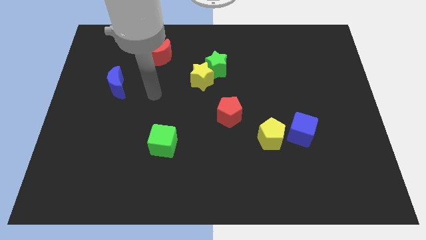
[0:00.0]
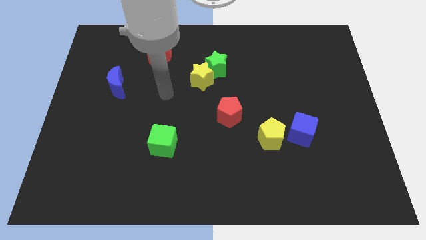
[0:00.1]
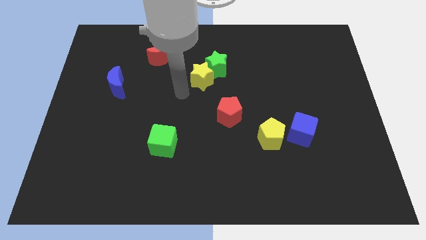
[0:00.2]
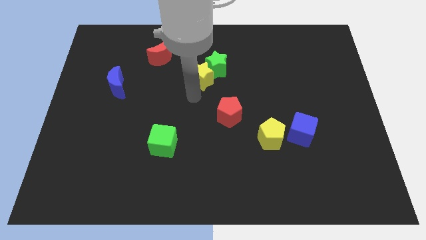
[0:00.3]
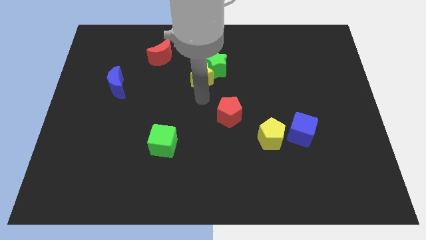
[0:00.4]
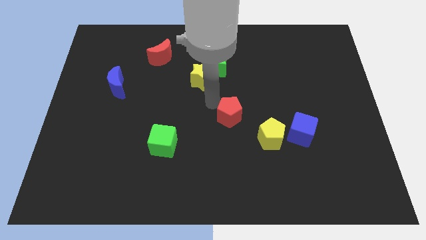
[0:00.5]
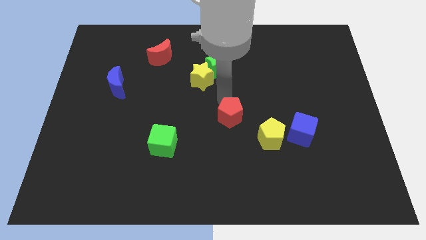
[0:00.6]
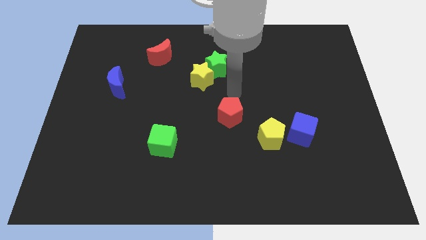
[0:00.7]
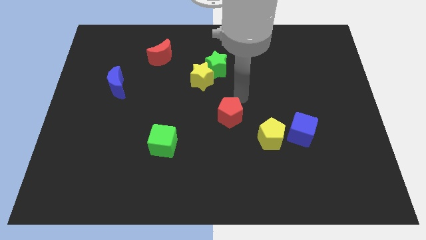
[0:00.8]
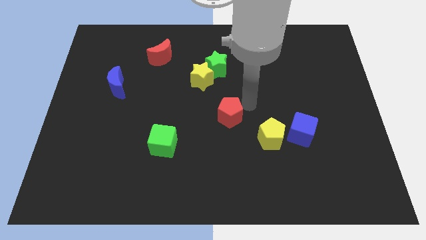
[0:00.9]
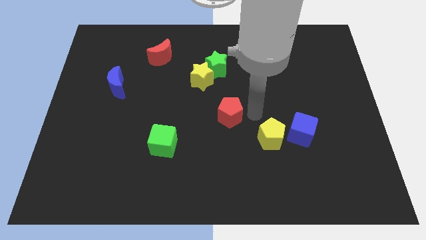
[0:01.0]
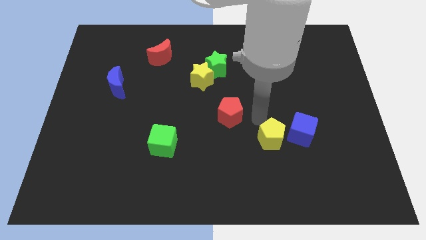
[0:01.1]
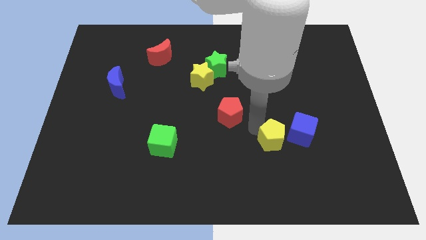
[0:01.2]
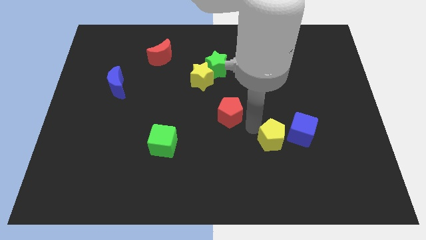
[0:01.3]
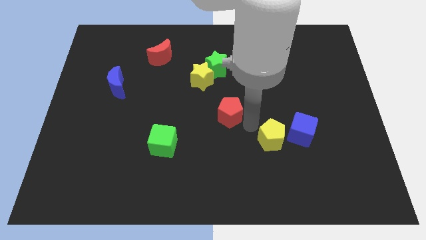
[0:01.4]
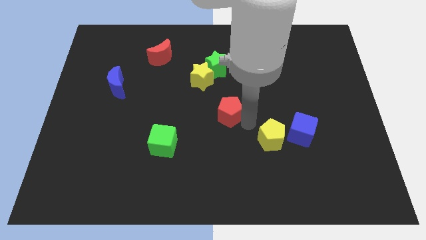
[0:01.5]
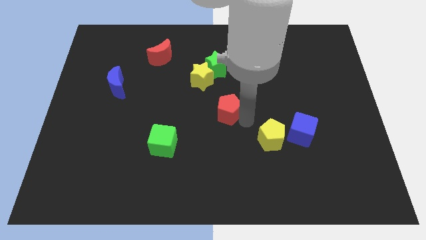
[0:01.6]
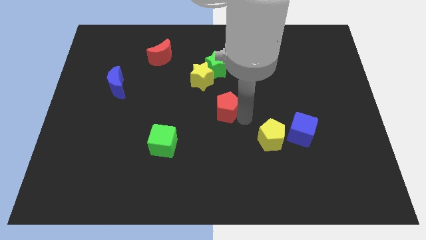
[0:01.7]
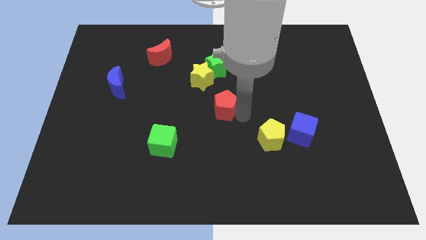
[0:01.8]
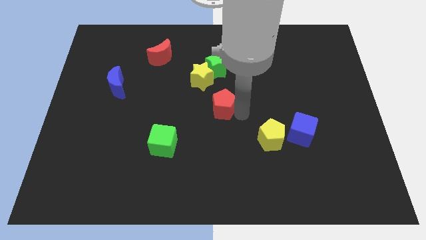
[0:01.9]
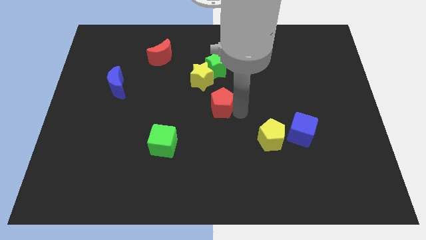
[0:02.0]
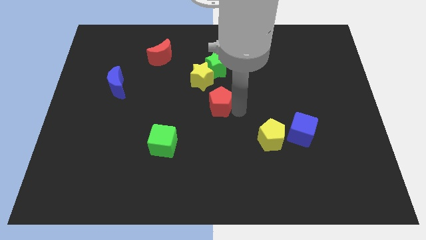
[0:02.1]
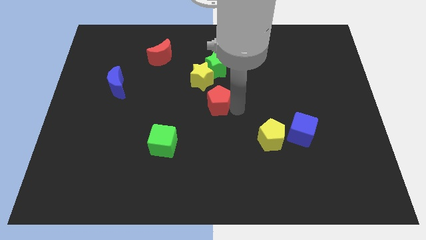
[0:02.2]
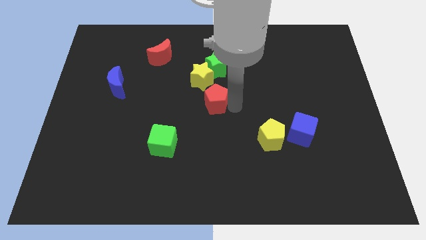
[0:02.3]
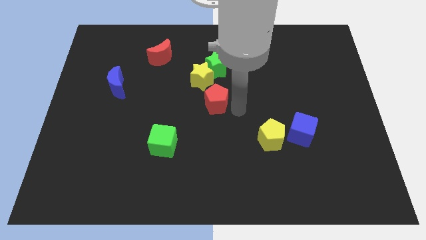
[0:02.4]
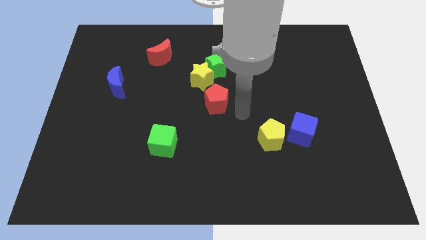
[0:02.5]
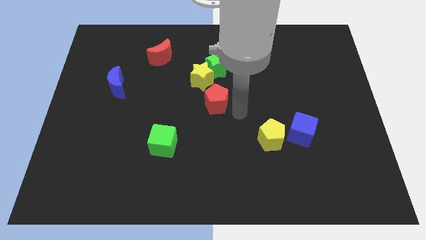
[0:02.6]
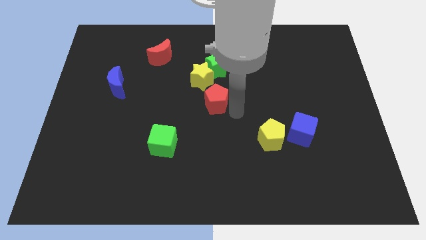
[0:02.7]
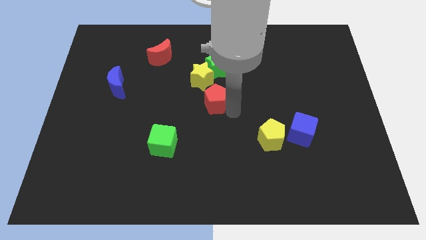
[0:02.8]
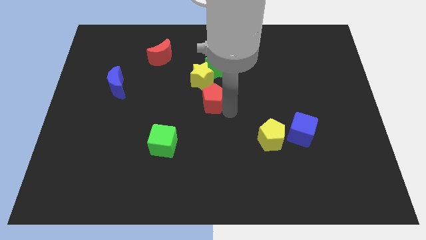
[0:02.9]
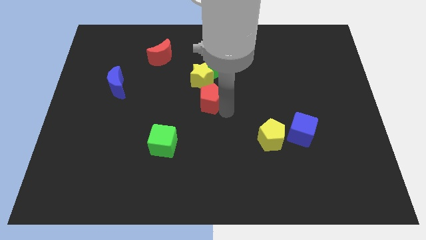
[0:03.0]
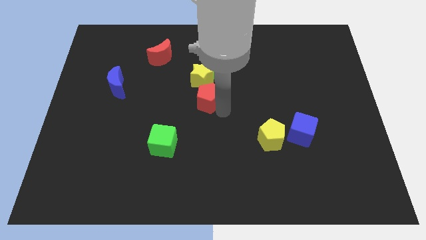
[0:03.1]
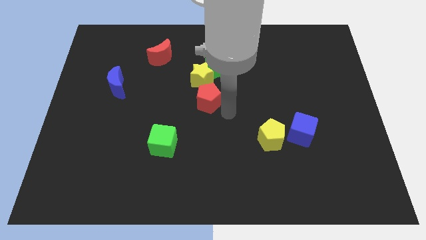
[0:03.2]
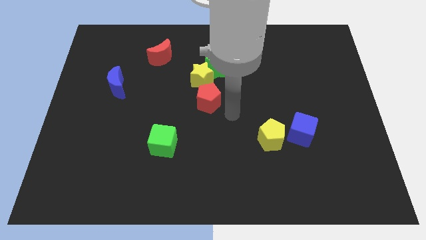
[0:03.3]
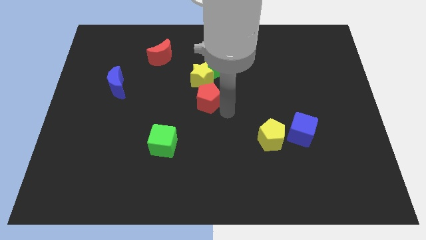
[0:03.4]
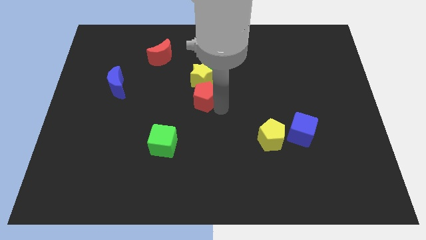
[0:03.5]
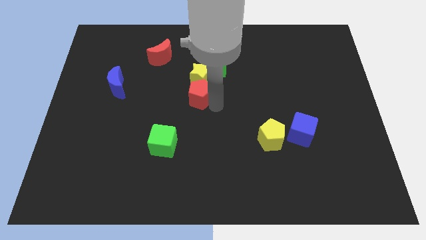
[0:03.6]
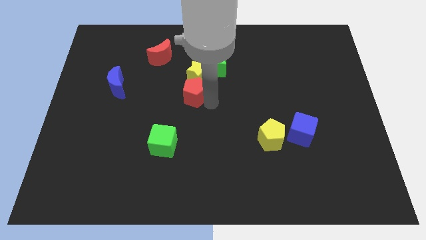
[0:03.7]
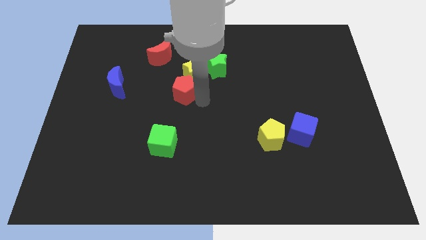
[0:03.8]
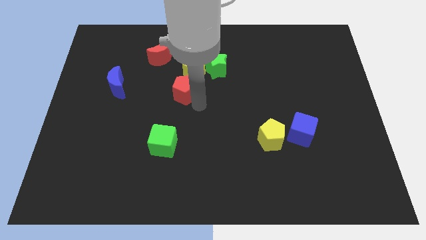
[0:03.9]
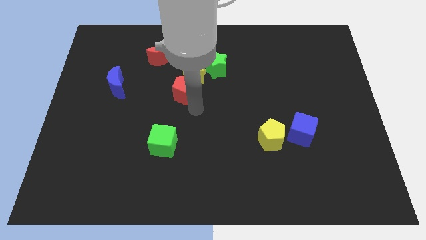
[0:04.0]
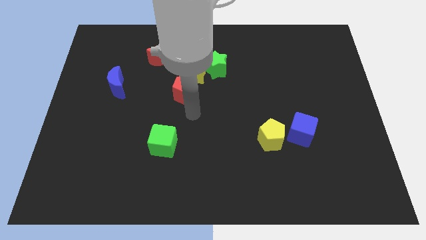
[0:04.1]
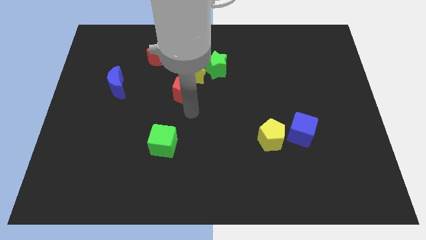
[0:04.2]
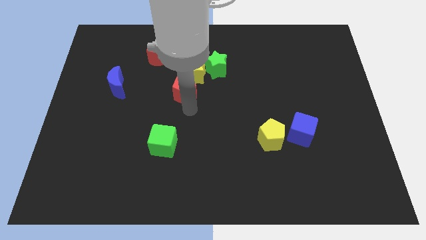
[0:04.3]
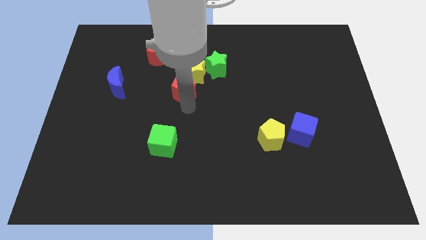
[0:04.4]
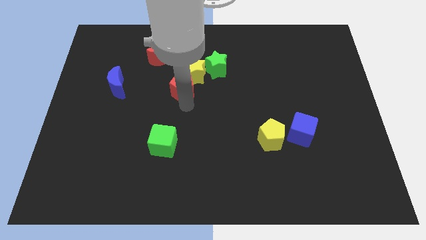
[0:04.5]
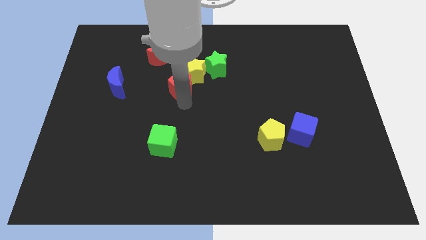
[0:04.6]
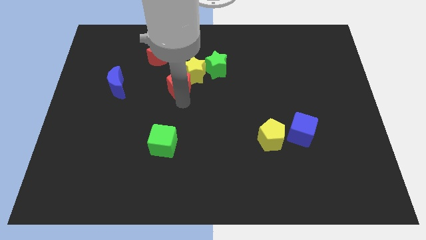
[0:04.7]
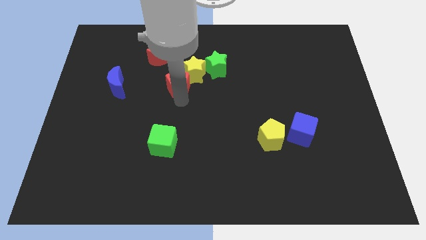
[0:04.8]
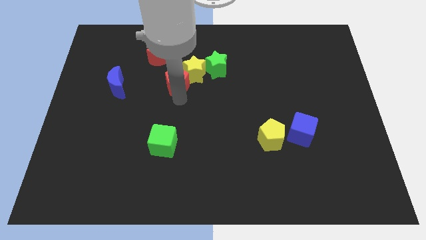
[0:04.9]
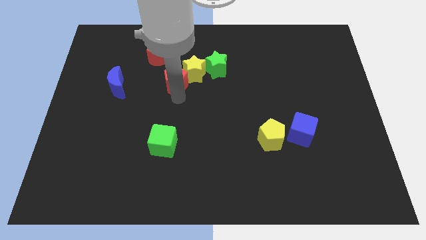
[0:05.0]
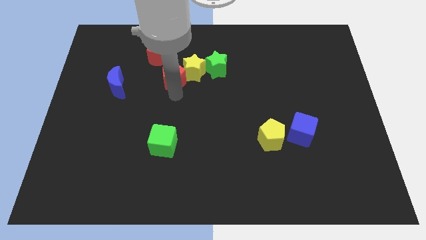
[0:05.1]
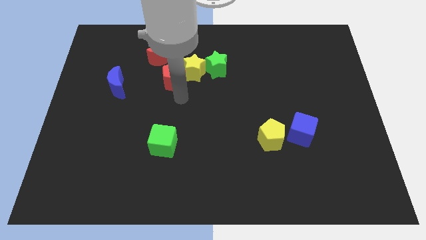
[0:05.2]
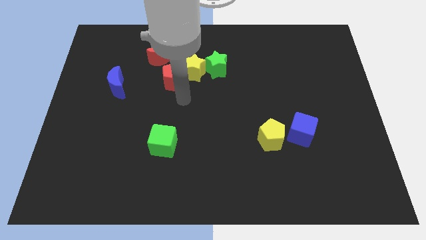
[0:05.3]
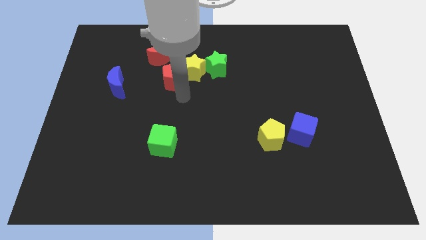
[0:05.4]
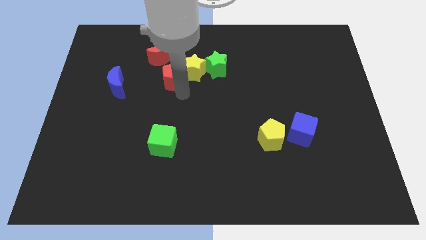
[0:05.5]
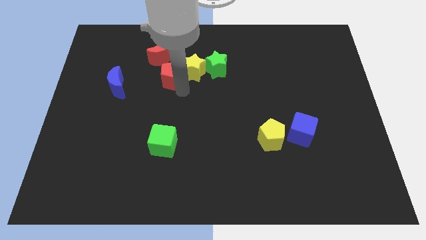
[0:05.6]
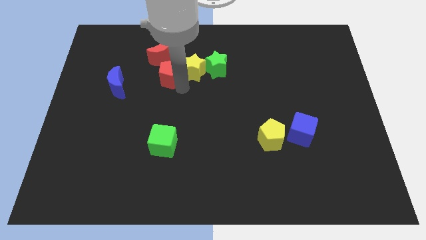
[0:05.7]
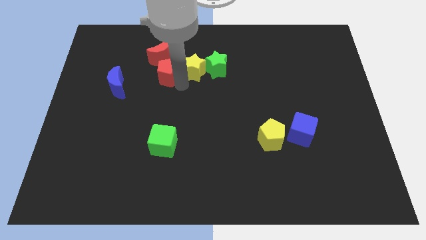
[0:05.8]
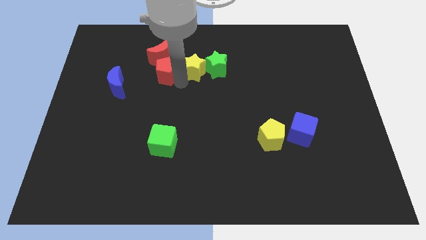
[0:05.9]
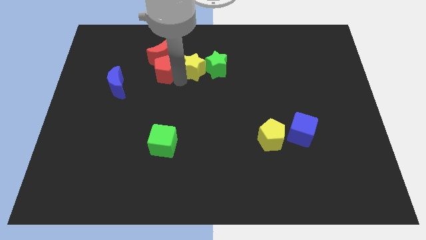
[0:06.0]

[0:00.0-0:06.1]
move the red pentagon next to the red moon

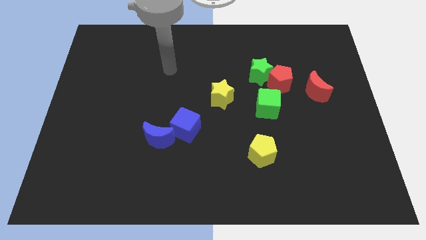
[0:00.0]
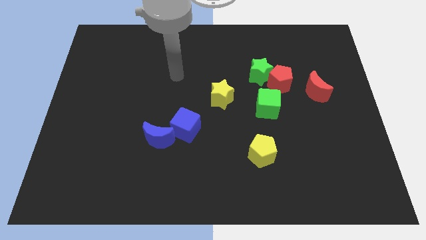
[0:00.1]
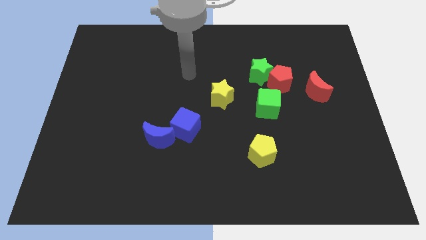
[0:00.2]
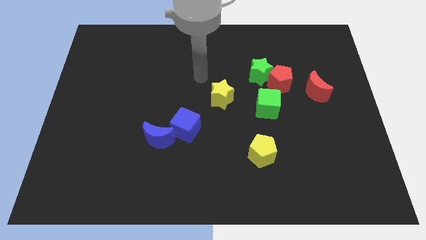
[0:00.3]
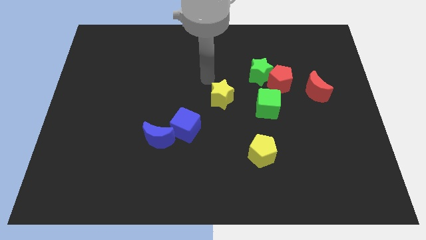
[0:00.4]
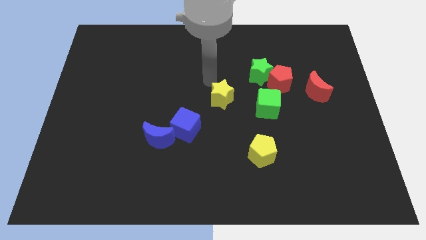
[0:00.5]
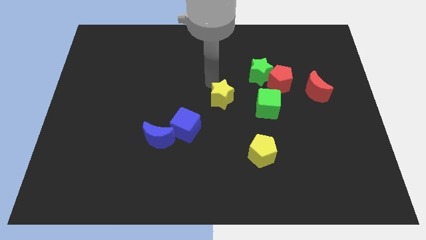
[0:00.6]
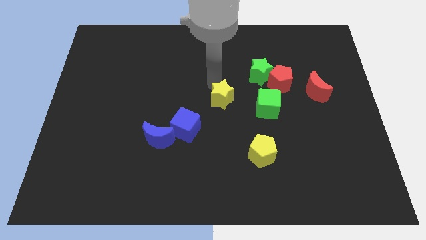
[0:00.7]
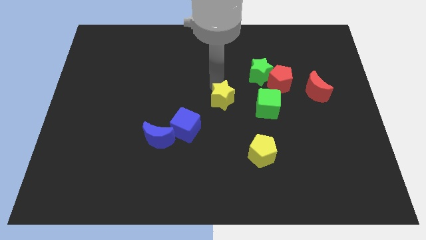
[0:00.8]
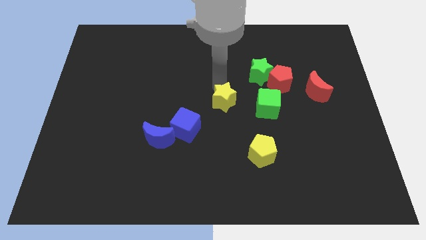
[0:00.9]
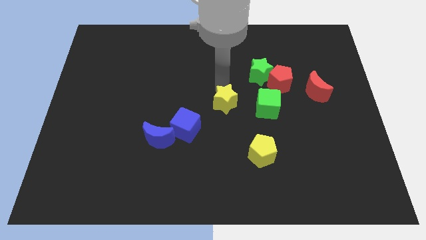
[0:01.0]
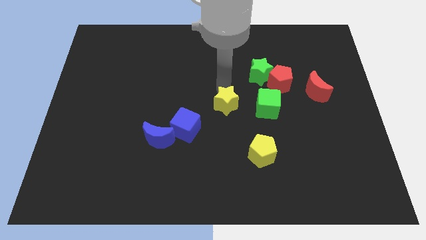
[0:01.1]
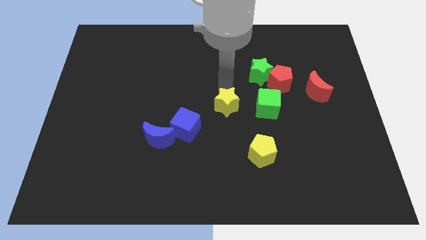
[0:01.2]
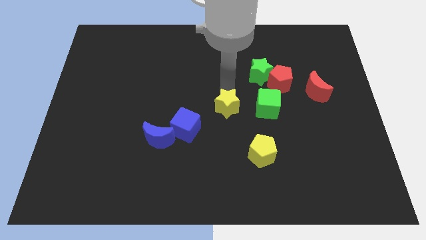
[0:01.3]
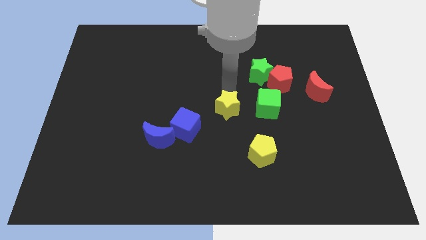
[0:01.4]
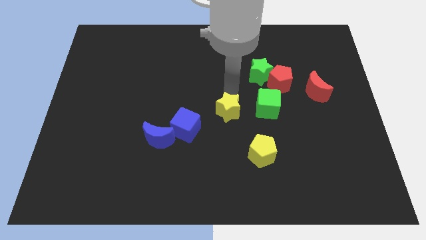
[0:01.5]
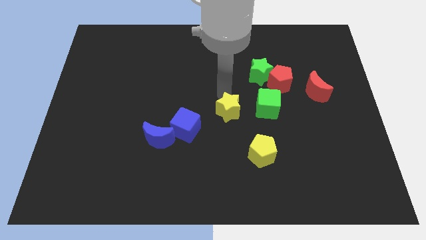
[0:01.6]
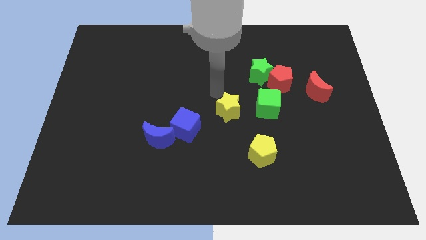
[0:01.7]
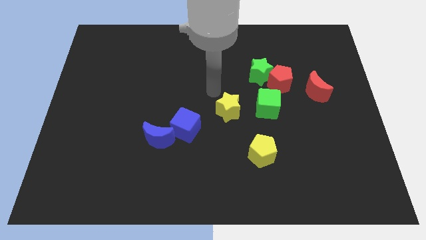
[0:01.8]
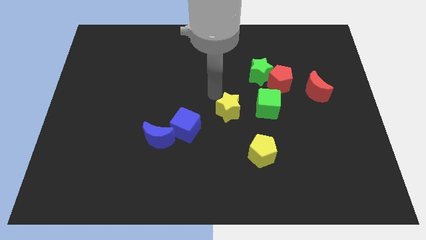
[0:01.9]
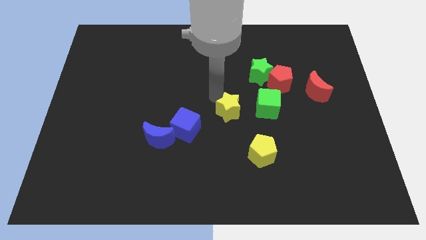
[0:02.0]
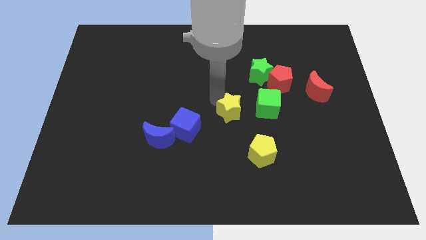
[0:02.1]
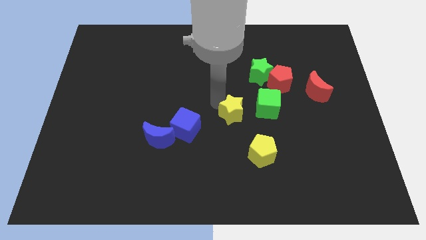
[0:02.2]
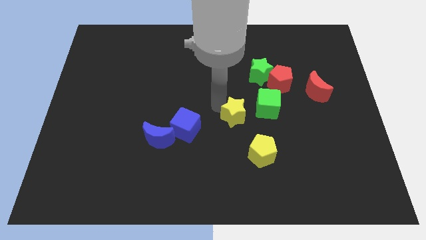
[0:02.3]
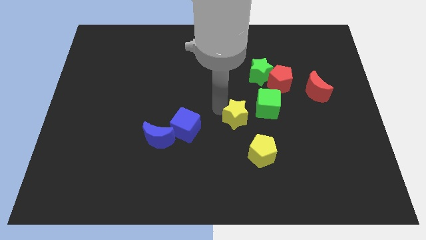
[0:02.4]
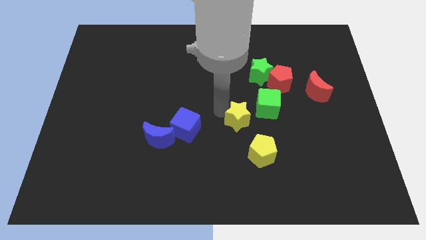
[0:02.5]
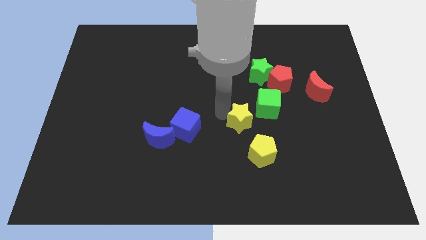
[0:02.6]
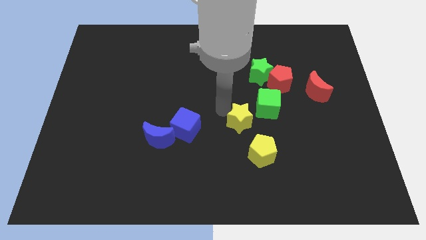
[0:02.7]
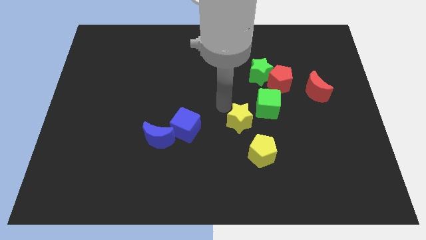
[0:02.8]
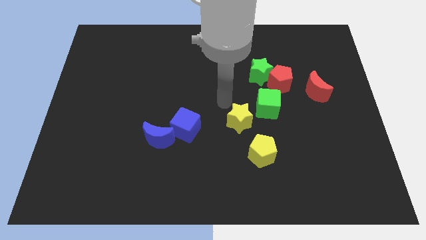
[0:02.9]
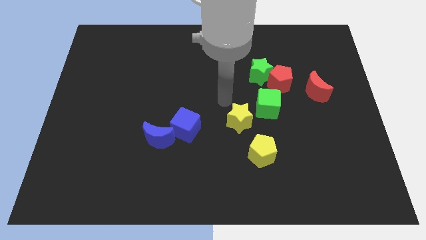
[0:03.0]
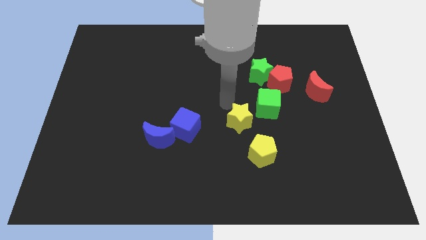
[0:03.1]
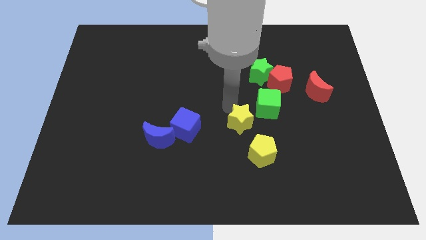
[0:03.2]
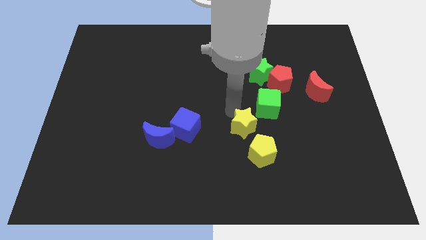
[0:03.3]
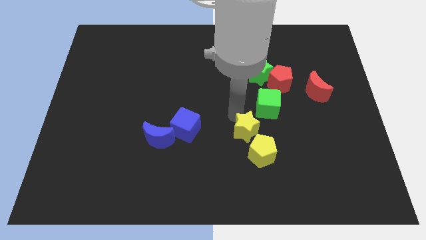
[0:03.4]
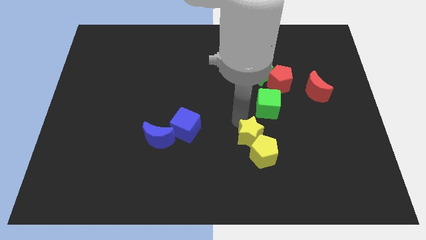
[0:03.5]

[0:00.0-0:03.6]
move the yellow star close to the yellow pentagon
